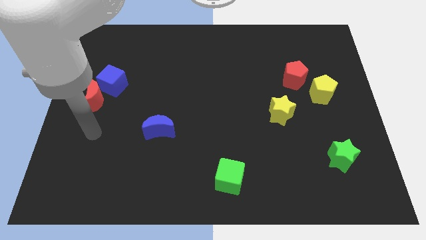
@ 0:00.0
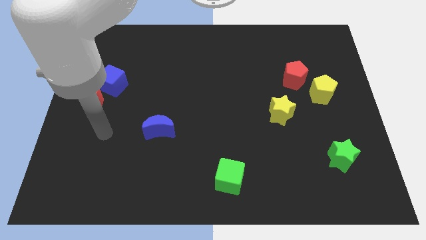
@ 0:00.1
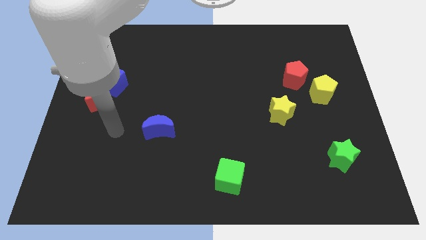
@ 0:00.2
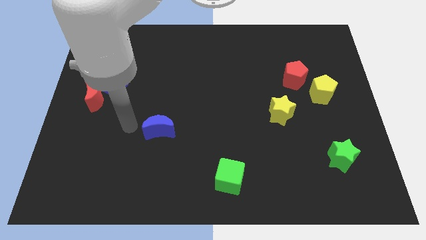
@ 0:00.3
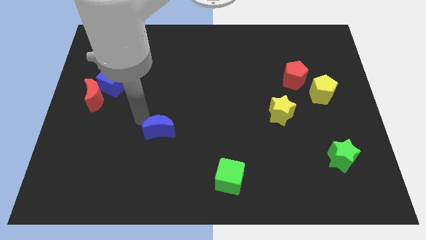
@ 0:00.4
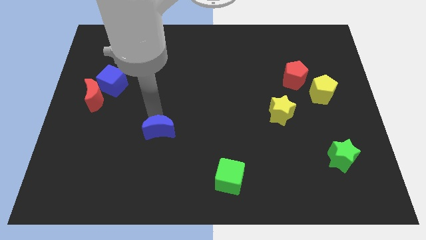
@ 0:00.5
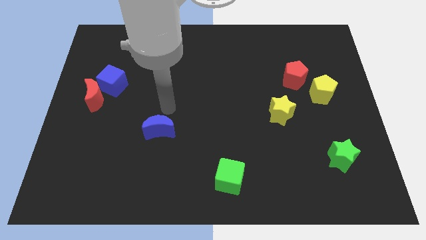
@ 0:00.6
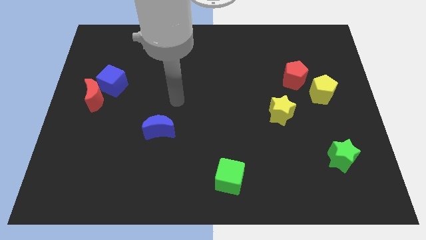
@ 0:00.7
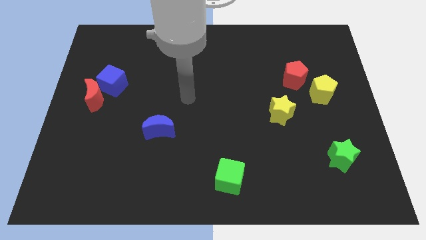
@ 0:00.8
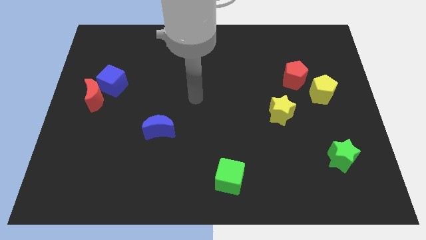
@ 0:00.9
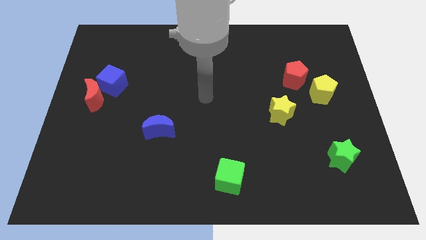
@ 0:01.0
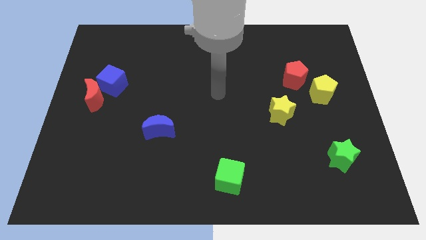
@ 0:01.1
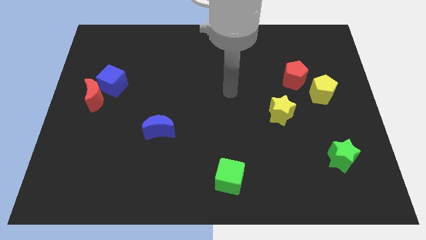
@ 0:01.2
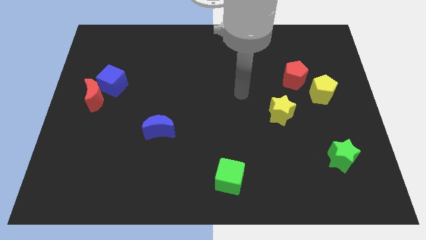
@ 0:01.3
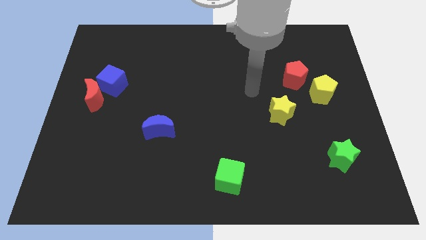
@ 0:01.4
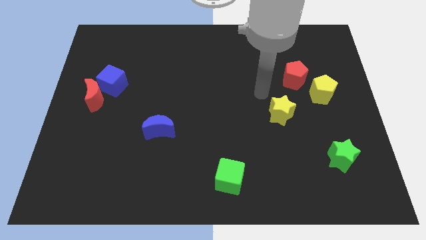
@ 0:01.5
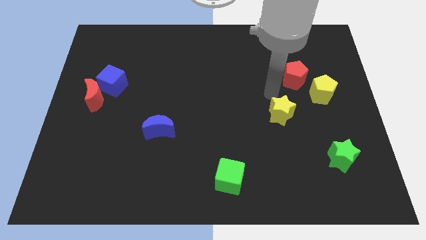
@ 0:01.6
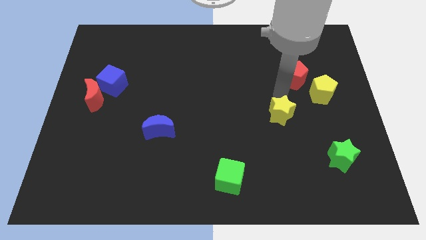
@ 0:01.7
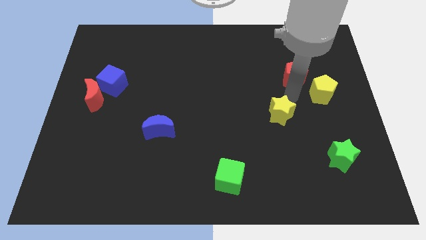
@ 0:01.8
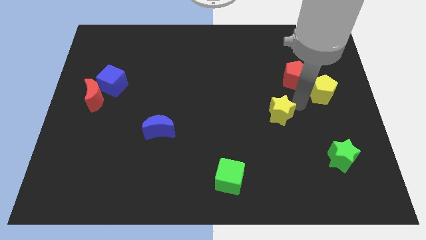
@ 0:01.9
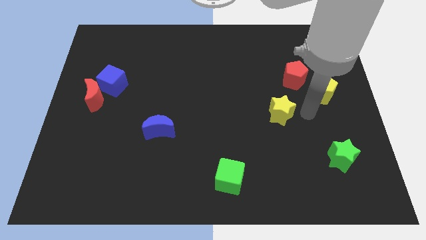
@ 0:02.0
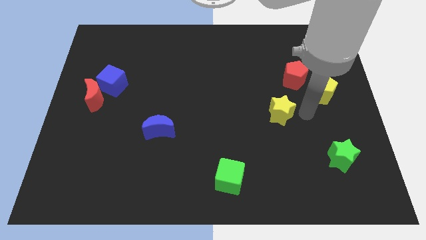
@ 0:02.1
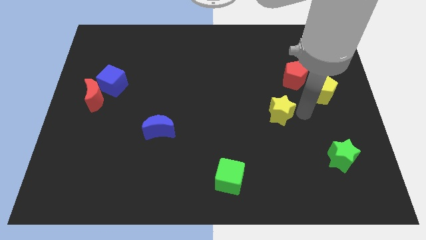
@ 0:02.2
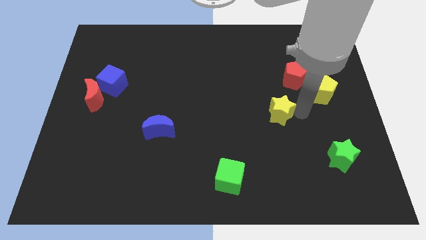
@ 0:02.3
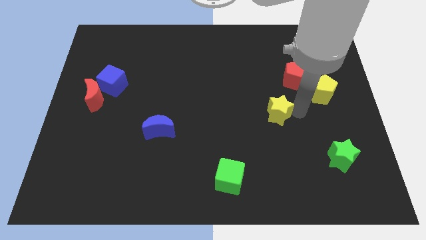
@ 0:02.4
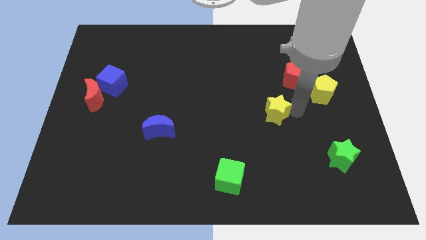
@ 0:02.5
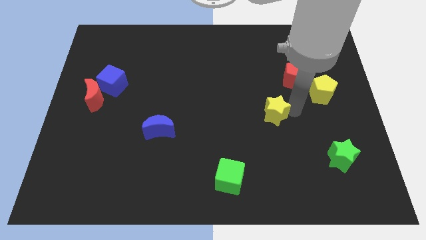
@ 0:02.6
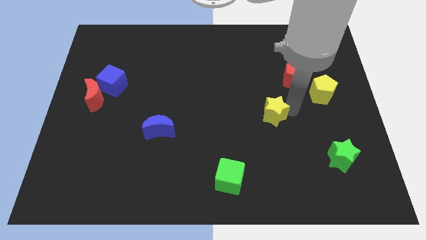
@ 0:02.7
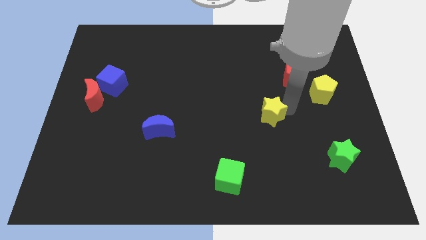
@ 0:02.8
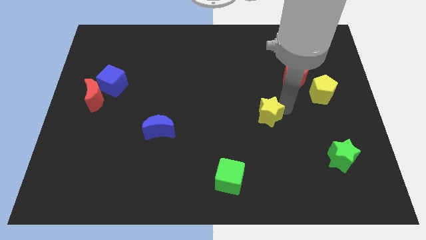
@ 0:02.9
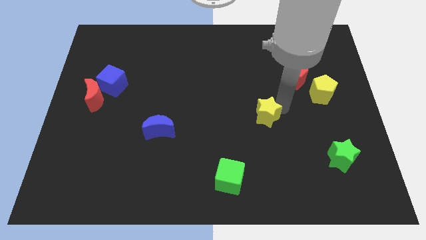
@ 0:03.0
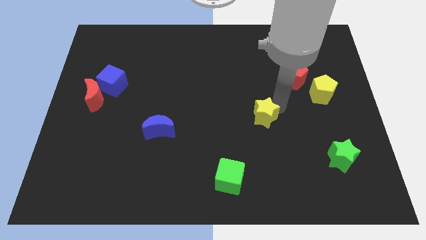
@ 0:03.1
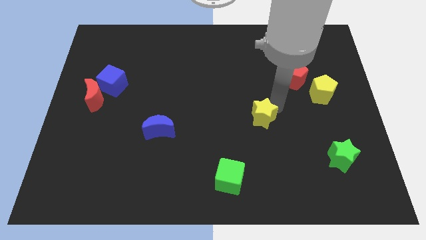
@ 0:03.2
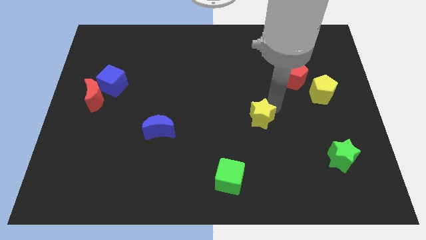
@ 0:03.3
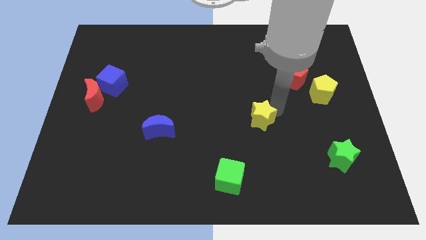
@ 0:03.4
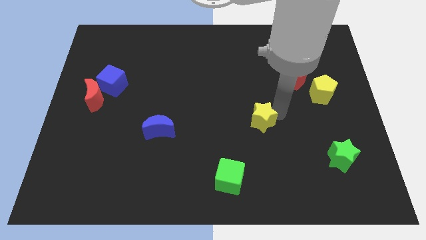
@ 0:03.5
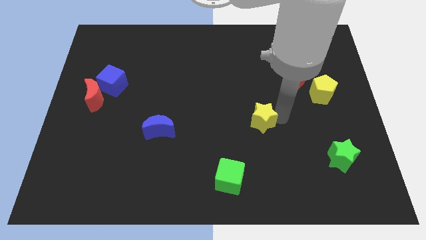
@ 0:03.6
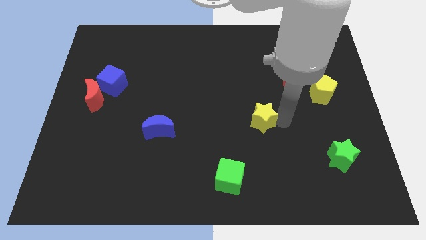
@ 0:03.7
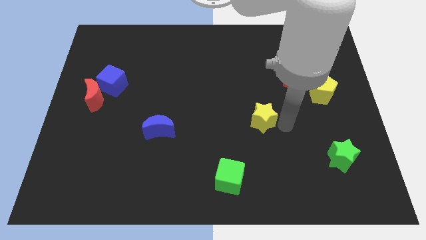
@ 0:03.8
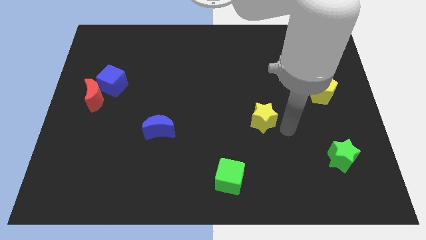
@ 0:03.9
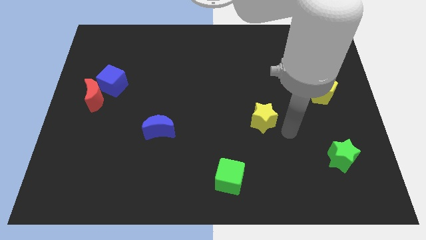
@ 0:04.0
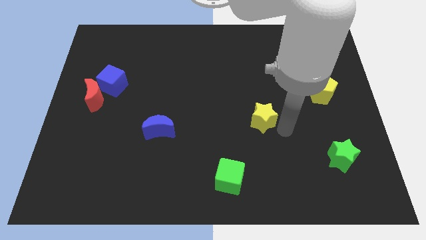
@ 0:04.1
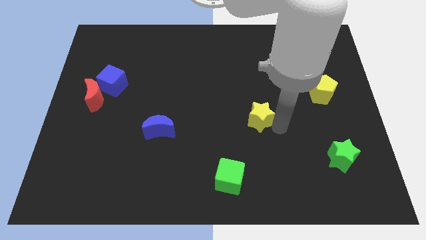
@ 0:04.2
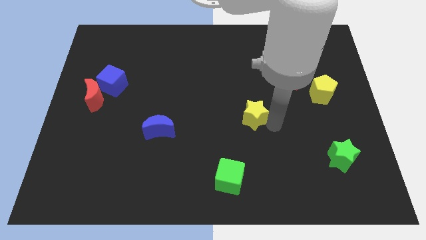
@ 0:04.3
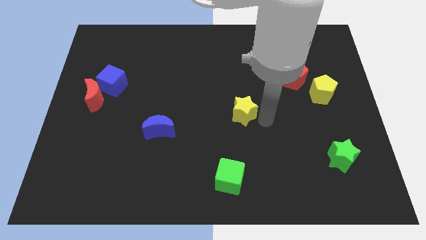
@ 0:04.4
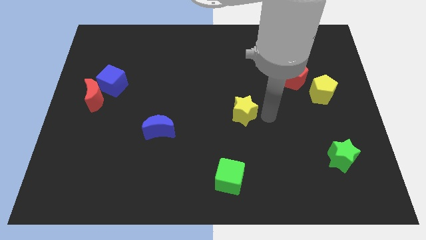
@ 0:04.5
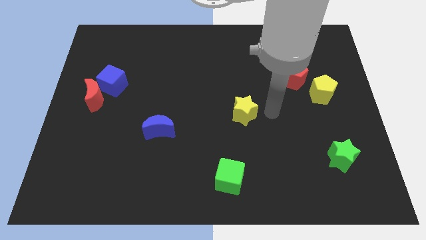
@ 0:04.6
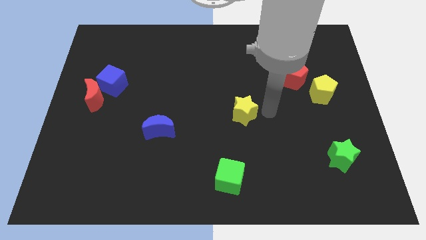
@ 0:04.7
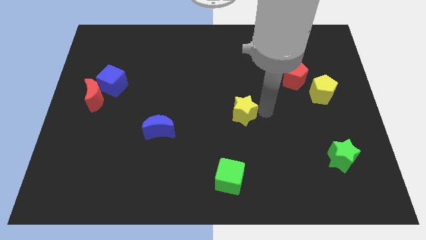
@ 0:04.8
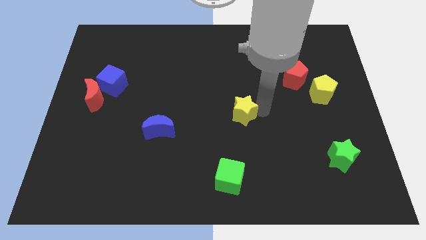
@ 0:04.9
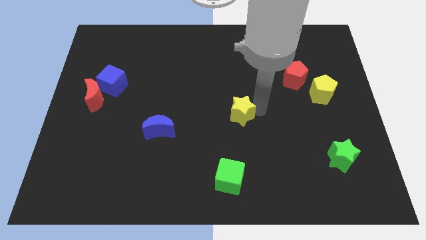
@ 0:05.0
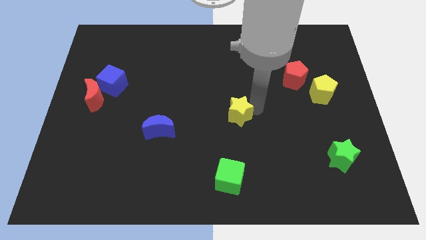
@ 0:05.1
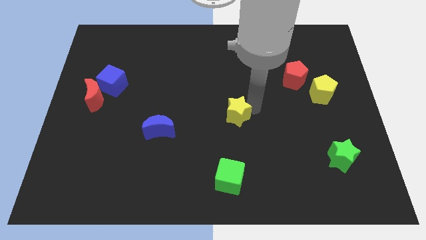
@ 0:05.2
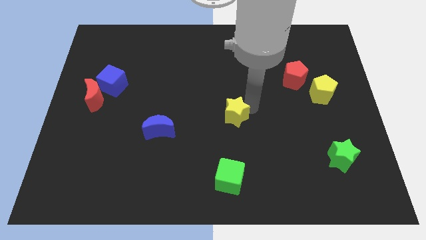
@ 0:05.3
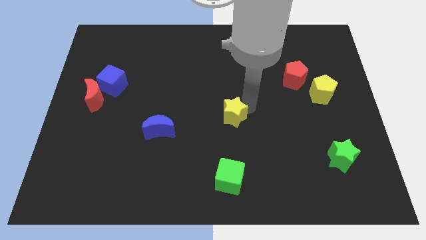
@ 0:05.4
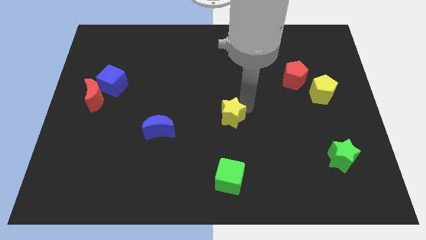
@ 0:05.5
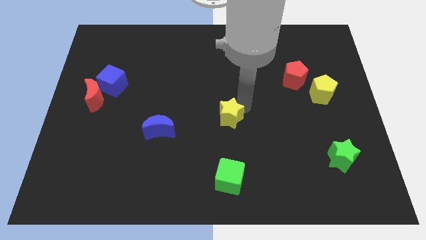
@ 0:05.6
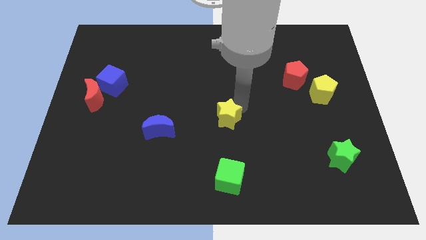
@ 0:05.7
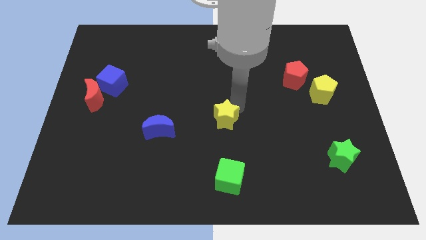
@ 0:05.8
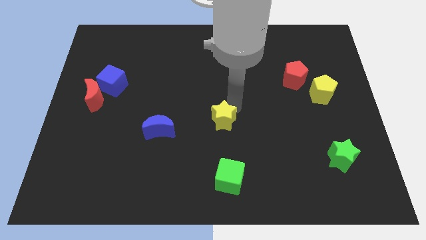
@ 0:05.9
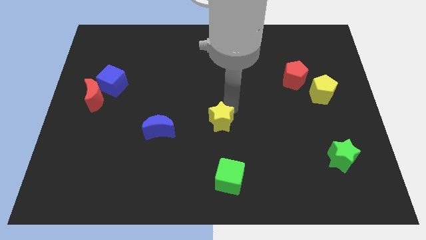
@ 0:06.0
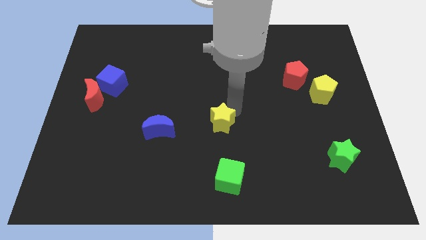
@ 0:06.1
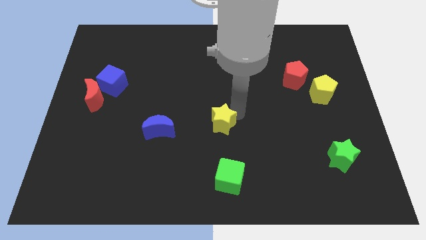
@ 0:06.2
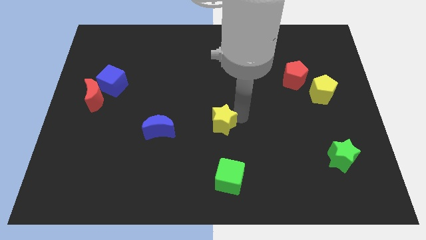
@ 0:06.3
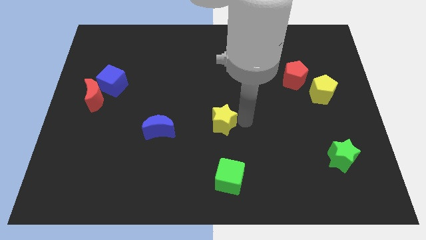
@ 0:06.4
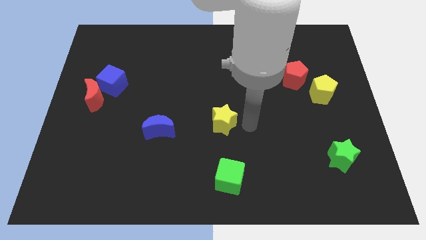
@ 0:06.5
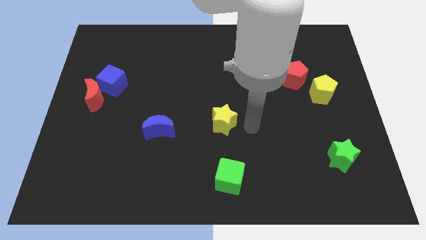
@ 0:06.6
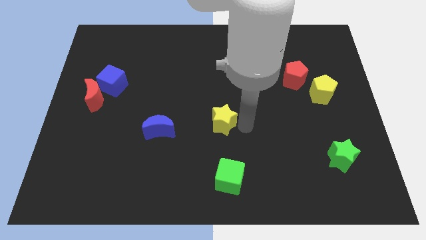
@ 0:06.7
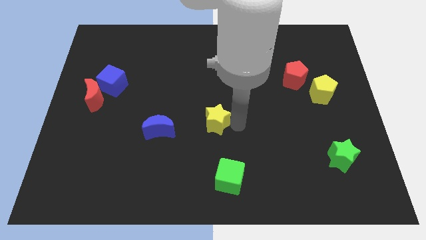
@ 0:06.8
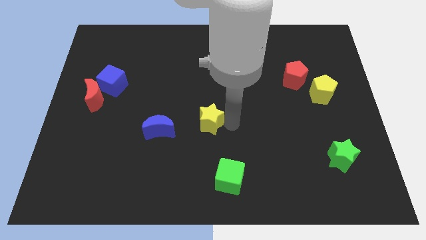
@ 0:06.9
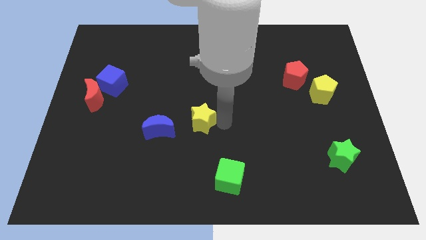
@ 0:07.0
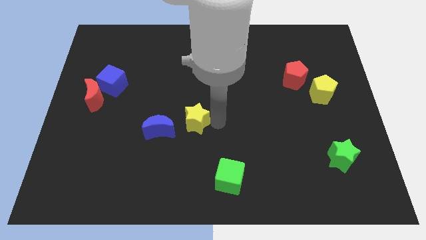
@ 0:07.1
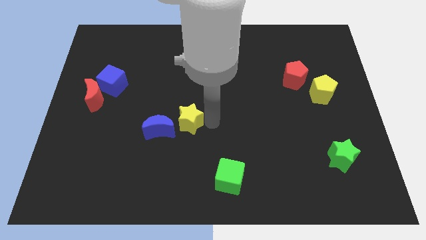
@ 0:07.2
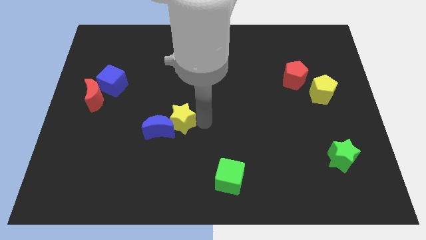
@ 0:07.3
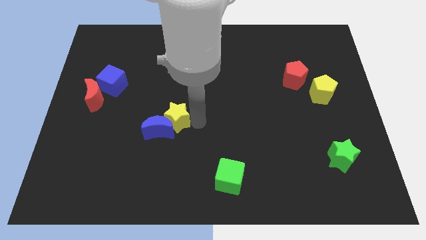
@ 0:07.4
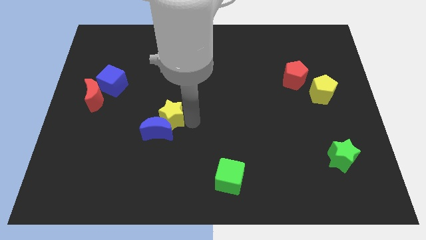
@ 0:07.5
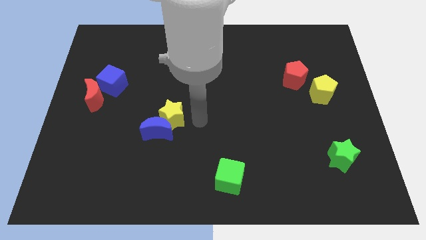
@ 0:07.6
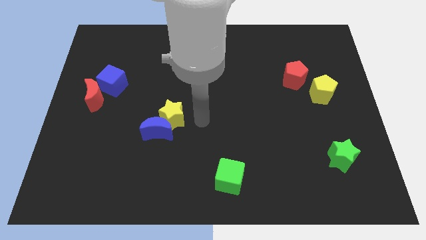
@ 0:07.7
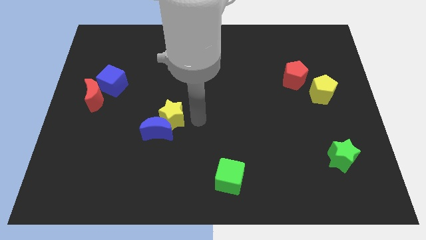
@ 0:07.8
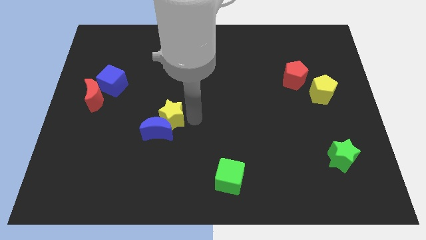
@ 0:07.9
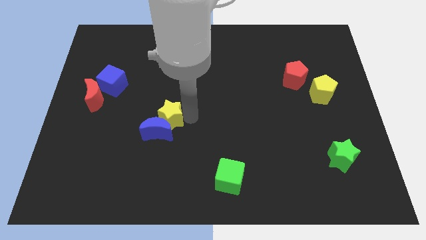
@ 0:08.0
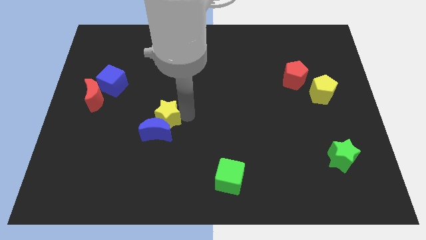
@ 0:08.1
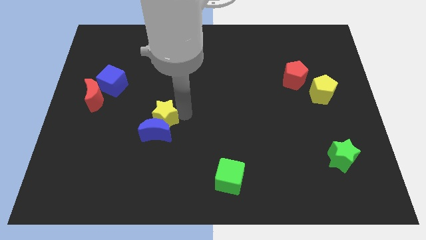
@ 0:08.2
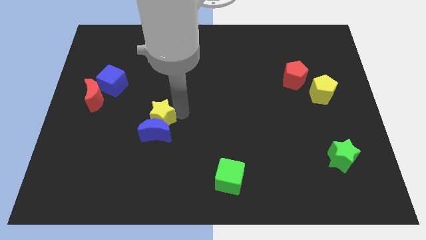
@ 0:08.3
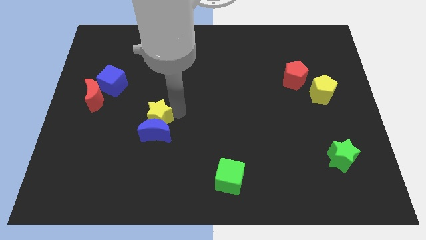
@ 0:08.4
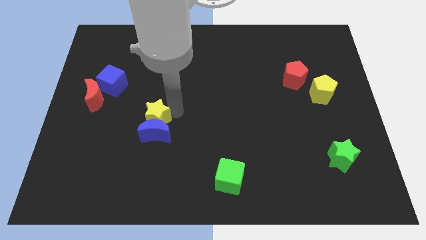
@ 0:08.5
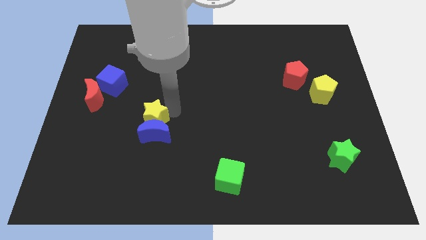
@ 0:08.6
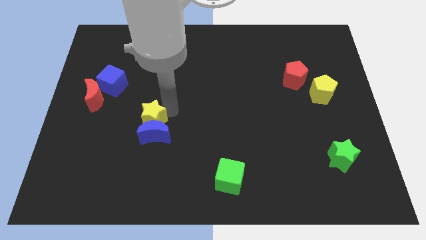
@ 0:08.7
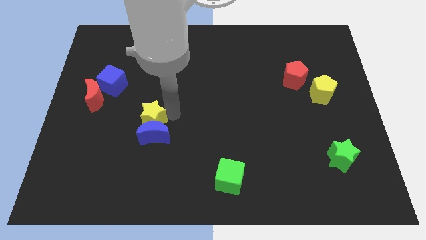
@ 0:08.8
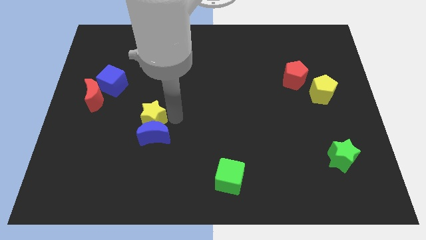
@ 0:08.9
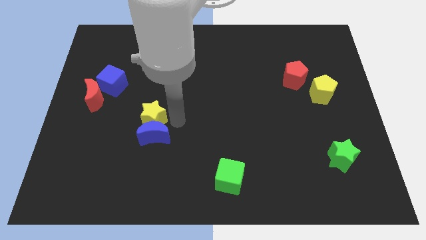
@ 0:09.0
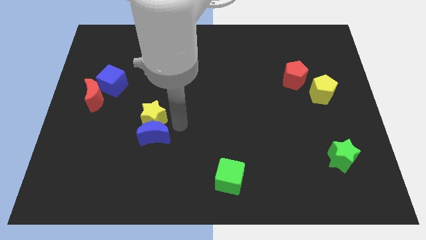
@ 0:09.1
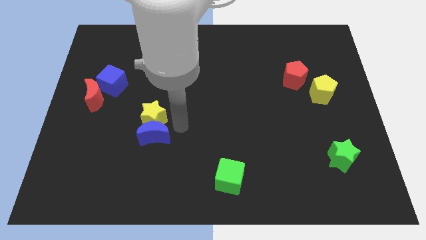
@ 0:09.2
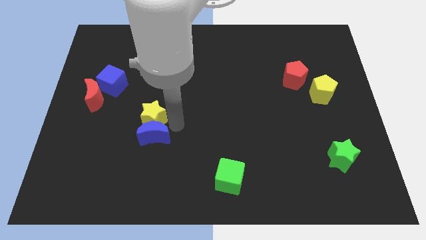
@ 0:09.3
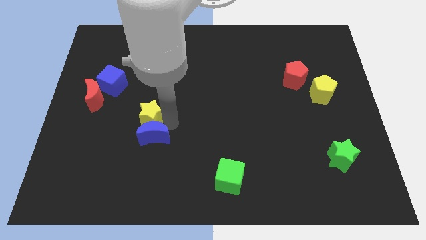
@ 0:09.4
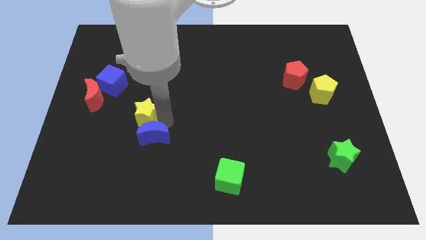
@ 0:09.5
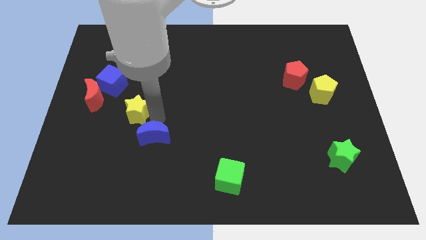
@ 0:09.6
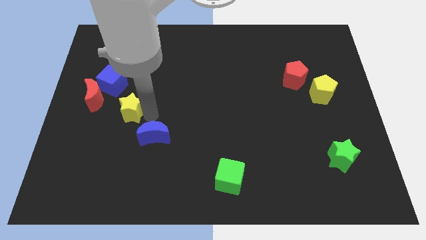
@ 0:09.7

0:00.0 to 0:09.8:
move the yellow star to the bottom right side of the red moon
